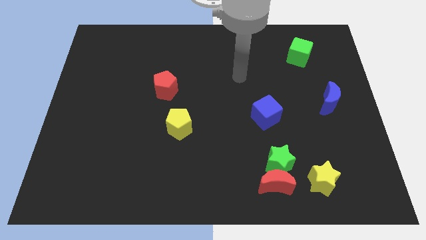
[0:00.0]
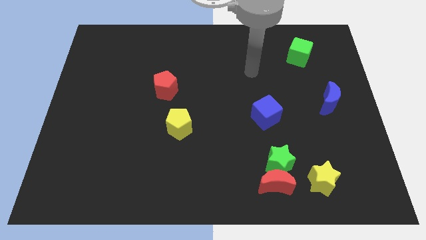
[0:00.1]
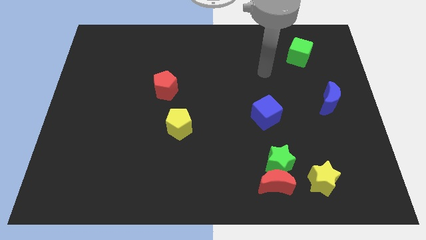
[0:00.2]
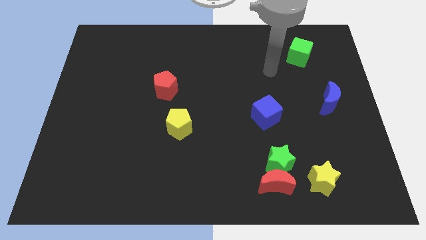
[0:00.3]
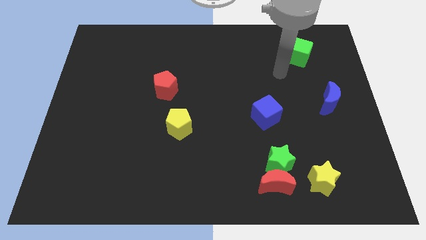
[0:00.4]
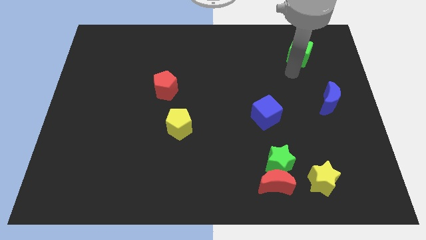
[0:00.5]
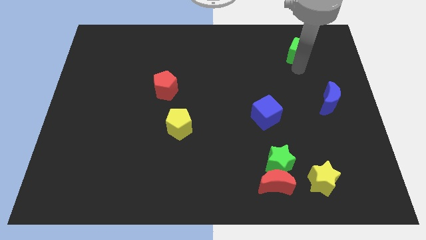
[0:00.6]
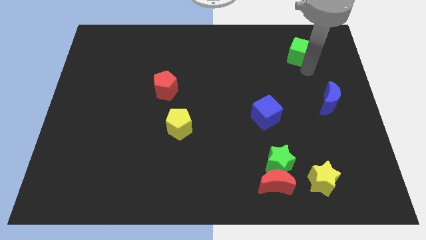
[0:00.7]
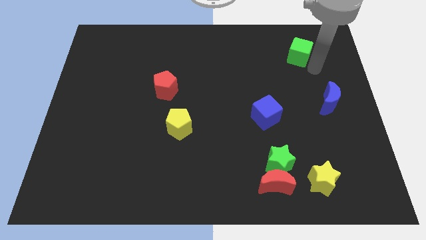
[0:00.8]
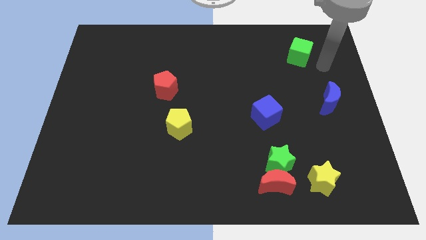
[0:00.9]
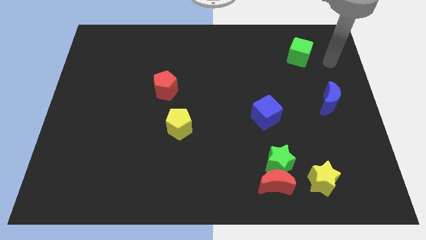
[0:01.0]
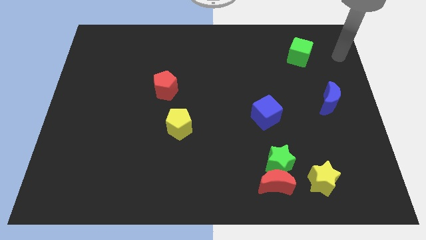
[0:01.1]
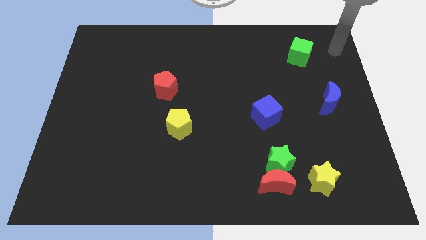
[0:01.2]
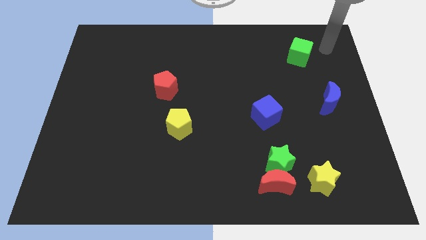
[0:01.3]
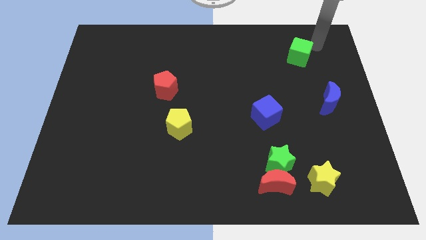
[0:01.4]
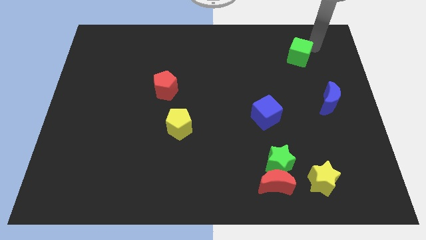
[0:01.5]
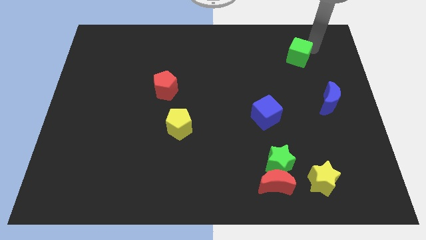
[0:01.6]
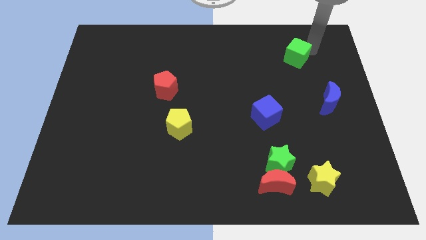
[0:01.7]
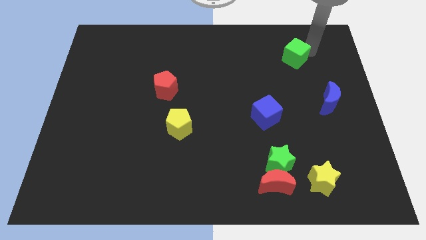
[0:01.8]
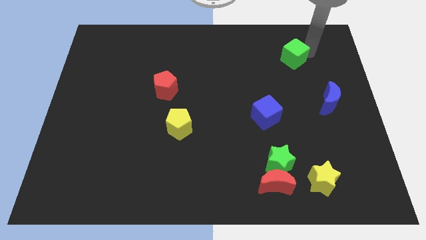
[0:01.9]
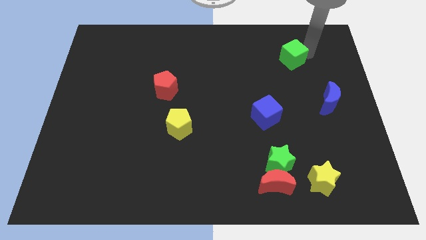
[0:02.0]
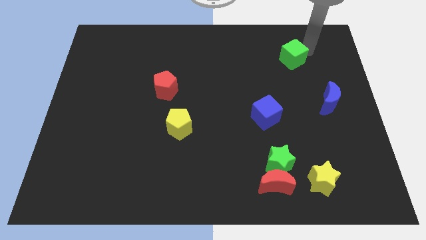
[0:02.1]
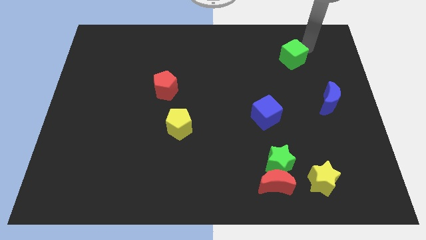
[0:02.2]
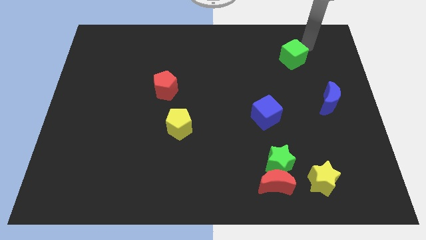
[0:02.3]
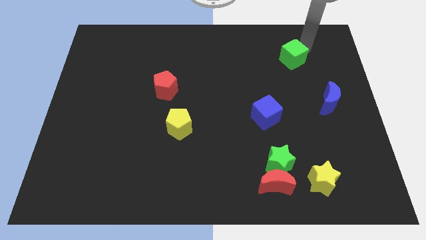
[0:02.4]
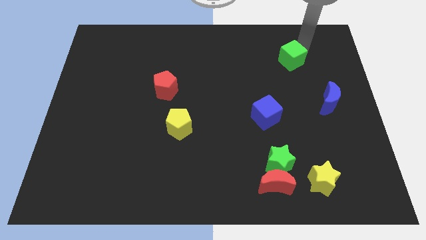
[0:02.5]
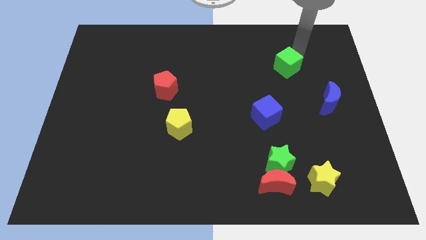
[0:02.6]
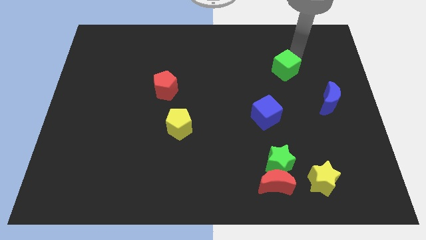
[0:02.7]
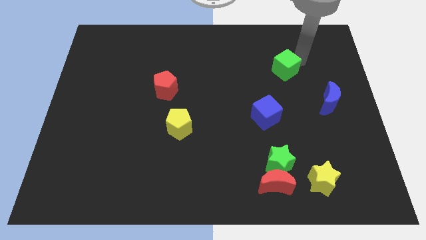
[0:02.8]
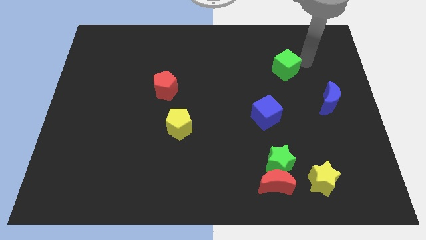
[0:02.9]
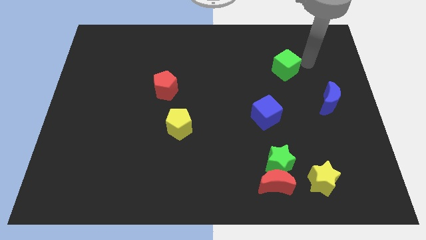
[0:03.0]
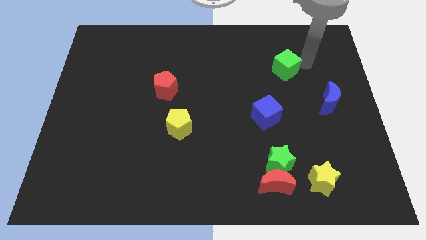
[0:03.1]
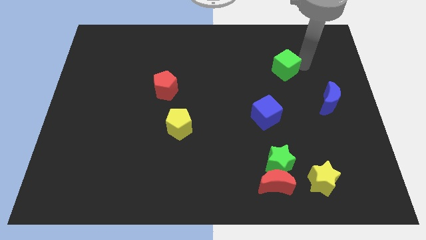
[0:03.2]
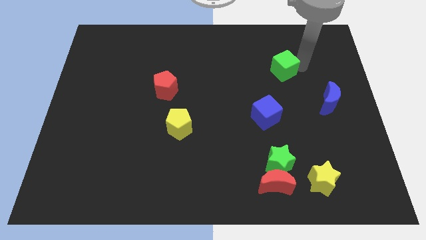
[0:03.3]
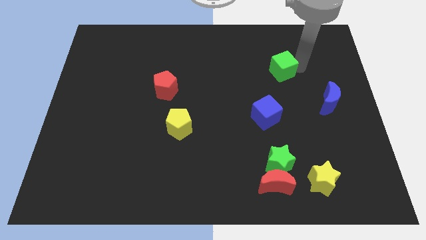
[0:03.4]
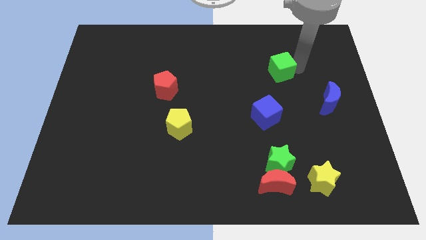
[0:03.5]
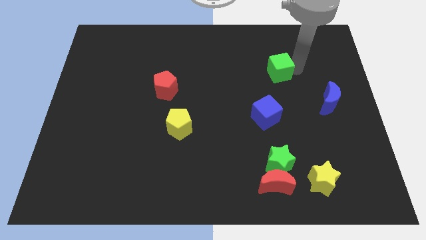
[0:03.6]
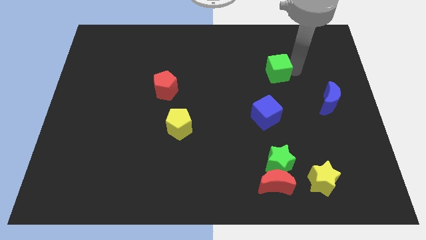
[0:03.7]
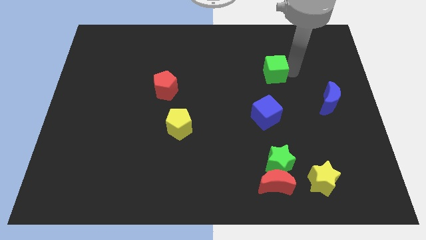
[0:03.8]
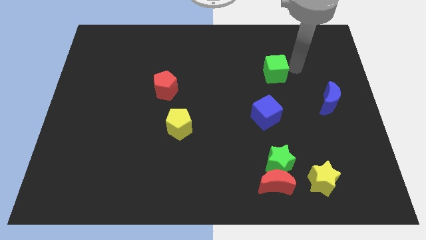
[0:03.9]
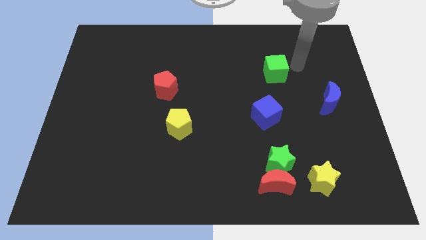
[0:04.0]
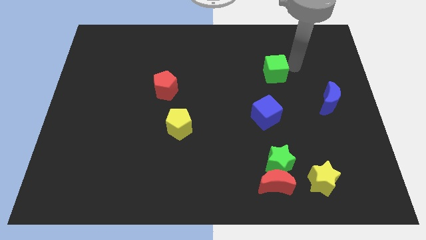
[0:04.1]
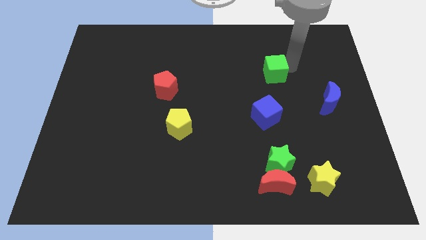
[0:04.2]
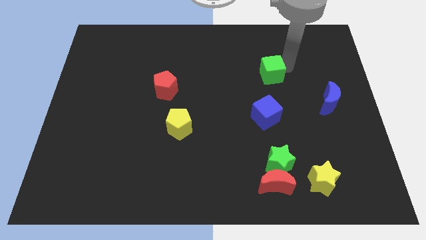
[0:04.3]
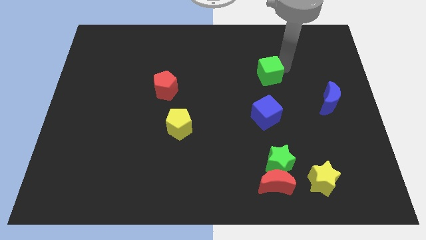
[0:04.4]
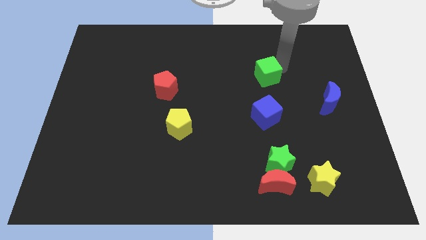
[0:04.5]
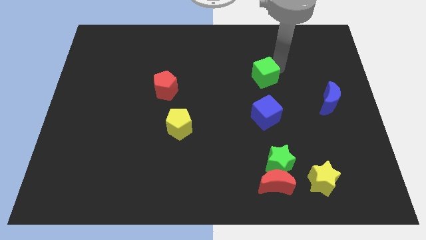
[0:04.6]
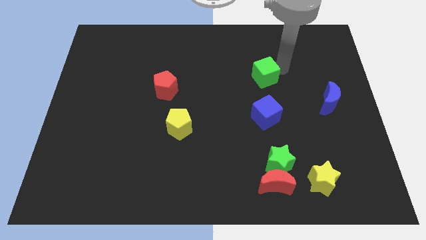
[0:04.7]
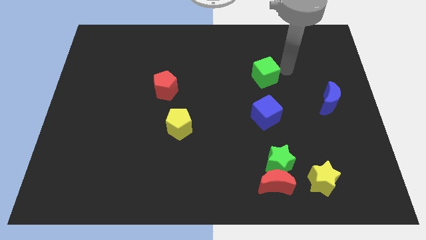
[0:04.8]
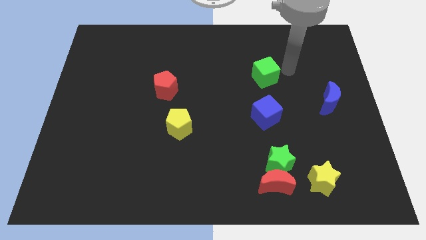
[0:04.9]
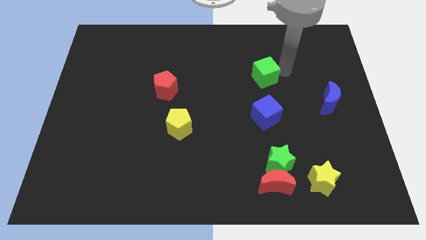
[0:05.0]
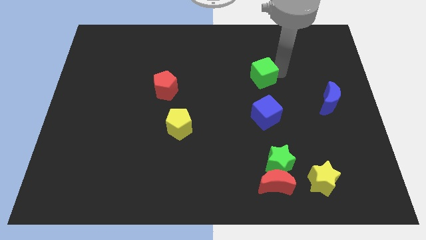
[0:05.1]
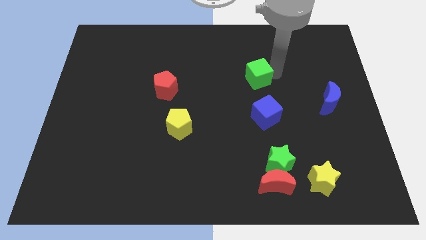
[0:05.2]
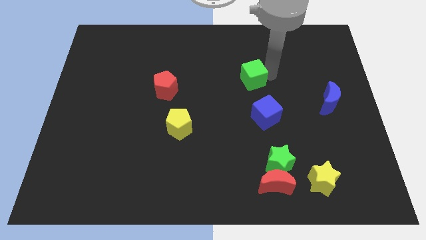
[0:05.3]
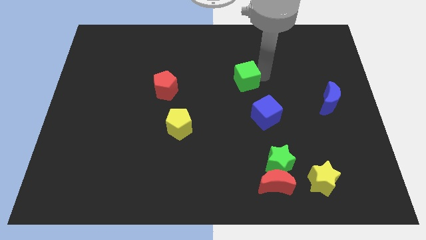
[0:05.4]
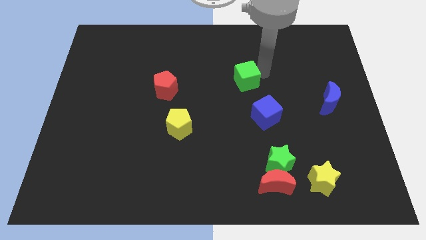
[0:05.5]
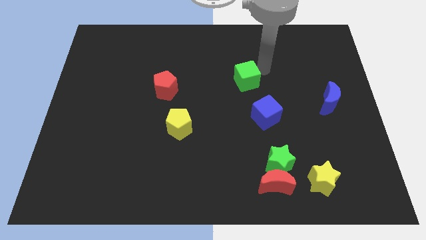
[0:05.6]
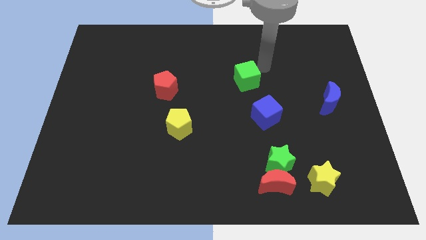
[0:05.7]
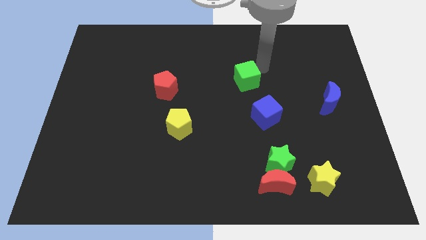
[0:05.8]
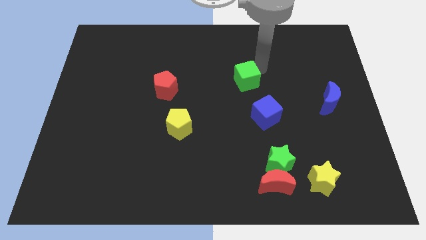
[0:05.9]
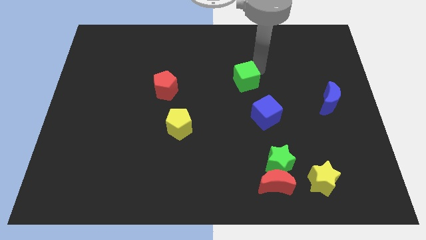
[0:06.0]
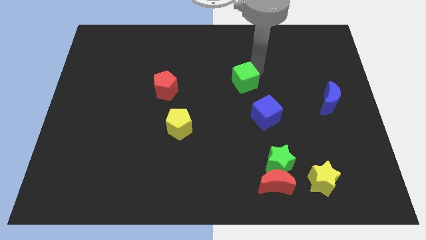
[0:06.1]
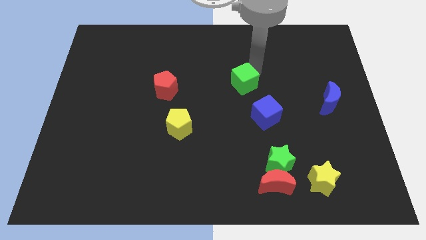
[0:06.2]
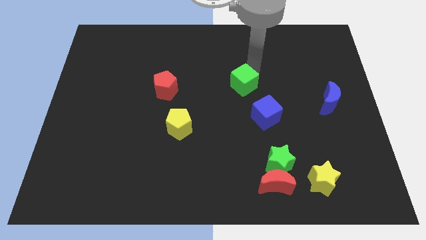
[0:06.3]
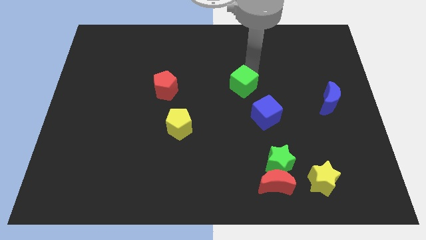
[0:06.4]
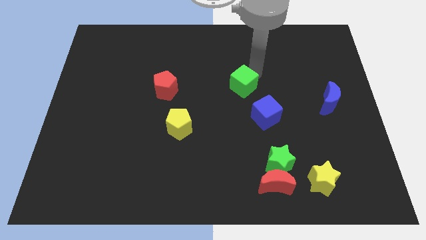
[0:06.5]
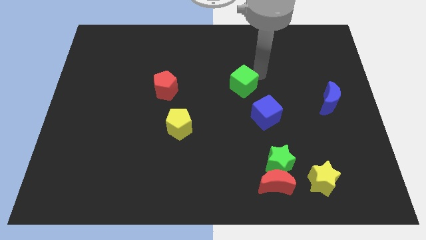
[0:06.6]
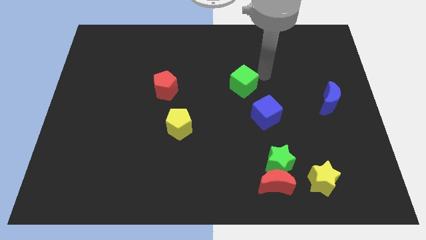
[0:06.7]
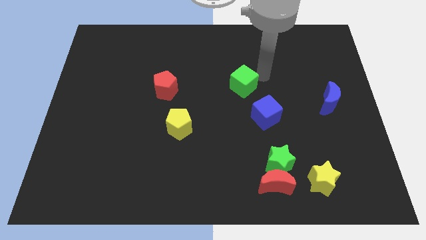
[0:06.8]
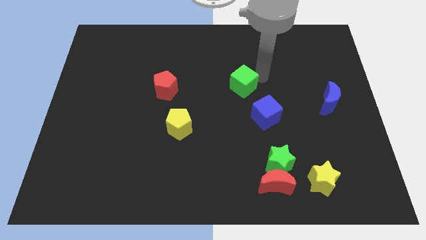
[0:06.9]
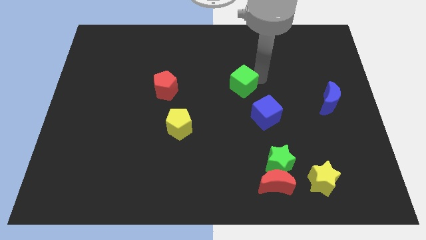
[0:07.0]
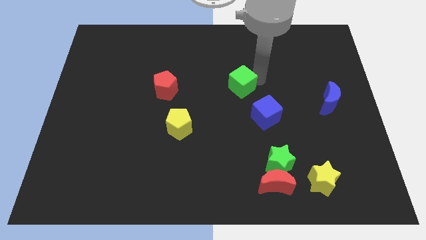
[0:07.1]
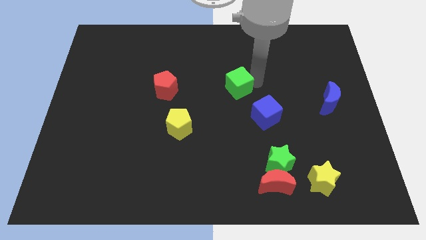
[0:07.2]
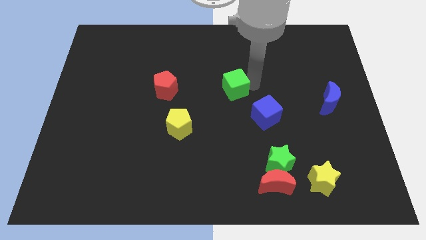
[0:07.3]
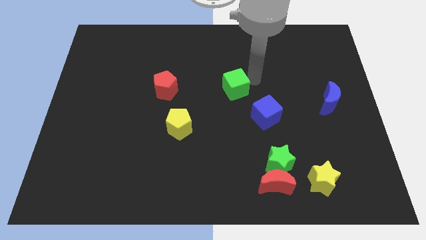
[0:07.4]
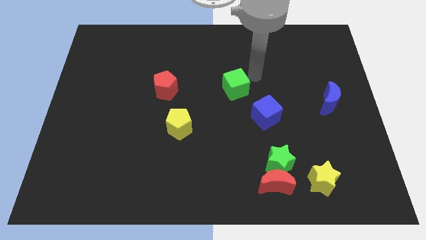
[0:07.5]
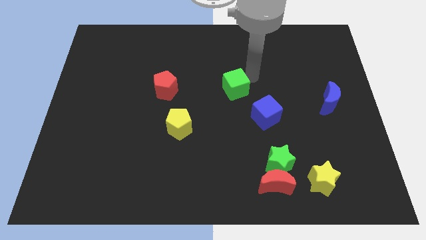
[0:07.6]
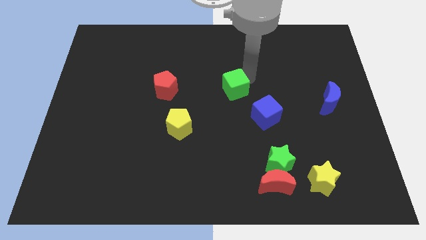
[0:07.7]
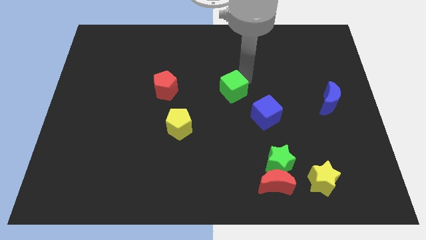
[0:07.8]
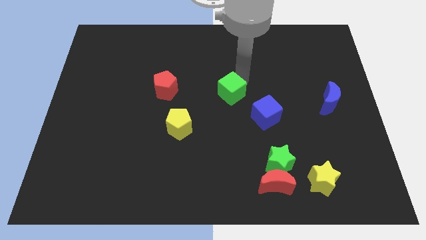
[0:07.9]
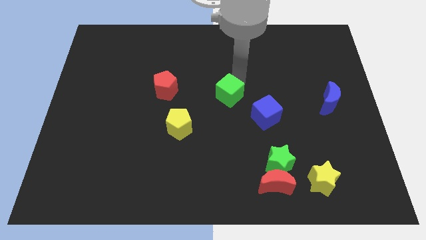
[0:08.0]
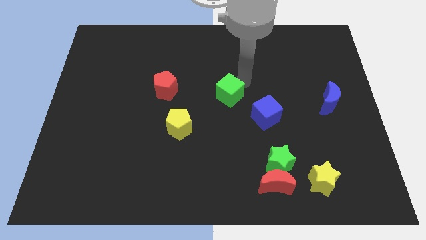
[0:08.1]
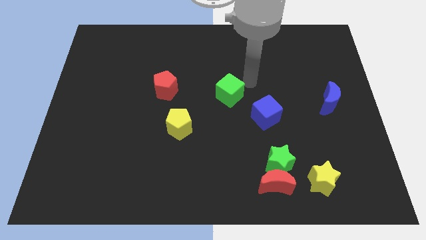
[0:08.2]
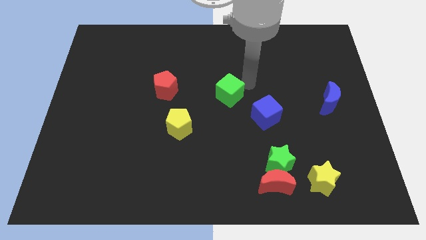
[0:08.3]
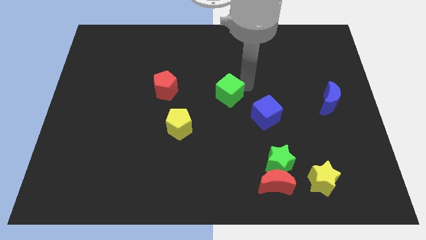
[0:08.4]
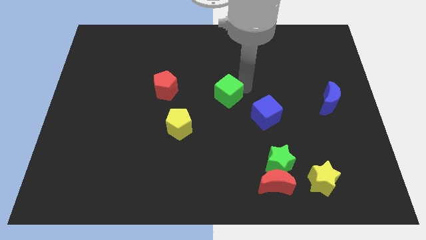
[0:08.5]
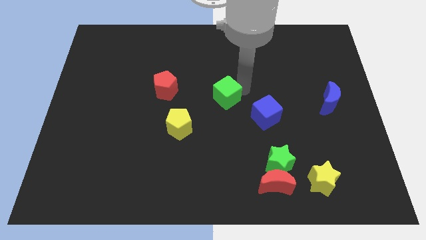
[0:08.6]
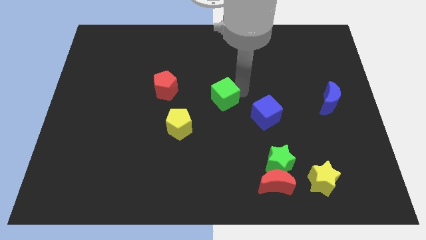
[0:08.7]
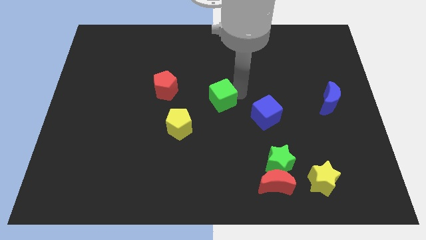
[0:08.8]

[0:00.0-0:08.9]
slide the green cube to the top right side of the yellow pentagon
